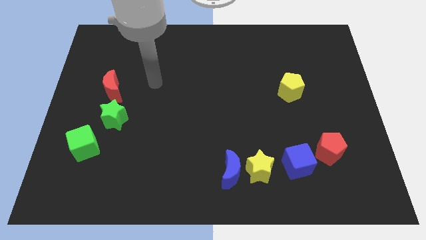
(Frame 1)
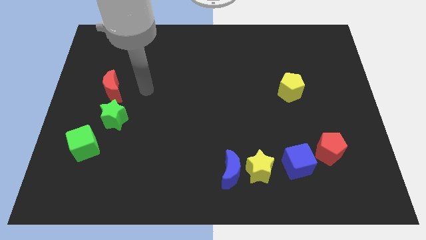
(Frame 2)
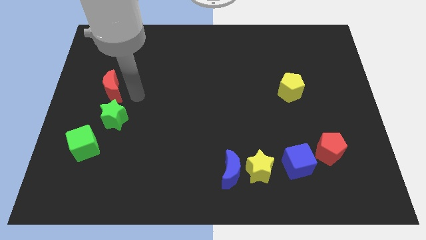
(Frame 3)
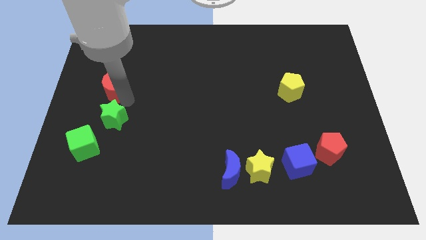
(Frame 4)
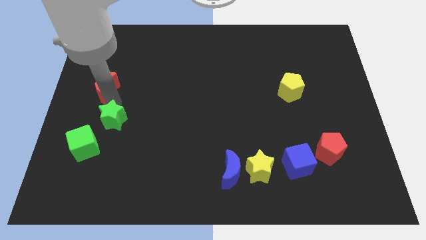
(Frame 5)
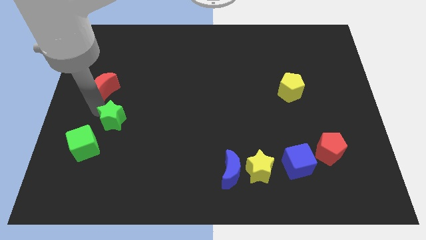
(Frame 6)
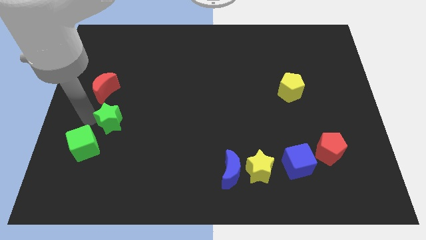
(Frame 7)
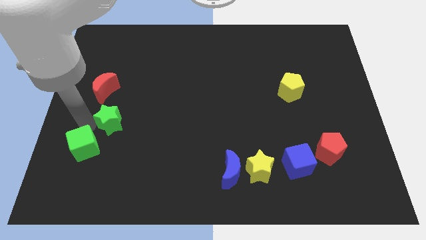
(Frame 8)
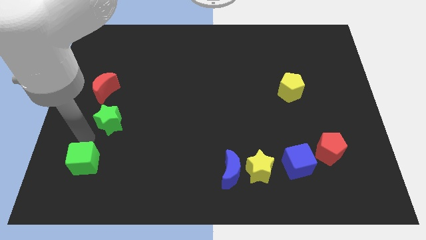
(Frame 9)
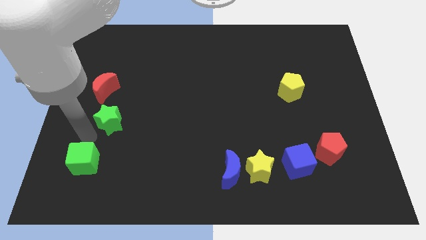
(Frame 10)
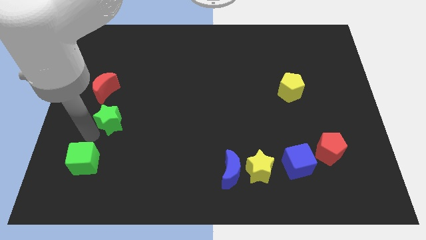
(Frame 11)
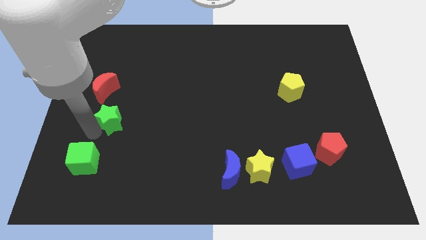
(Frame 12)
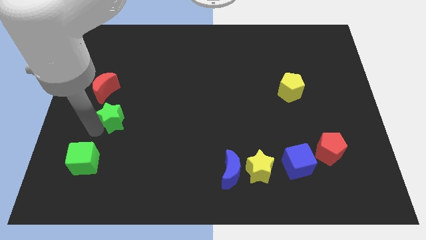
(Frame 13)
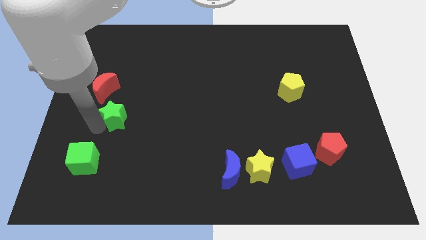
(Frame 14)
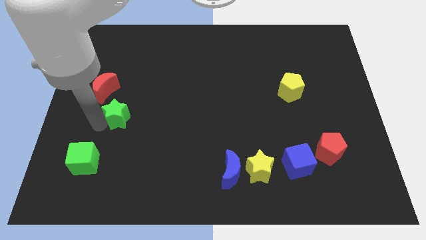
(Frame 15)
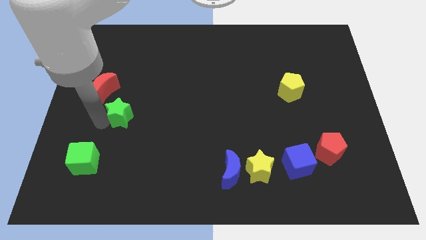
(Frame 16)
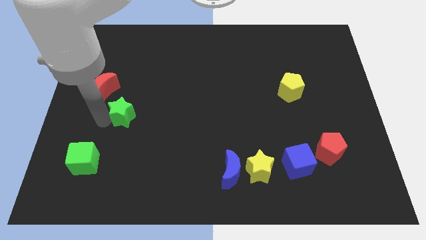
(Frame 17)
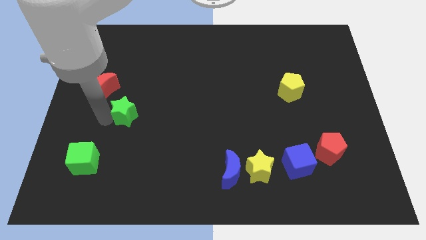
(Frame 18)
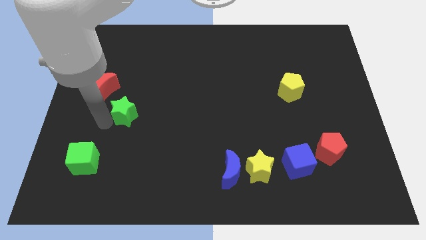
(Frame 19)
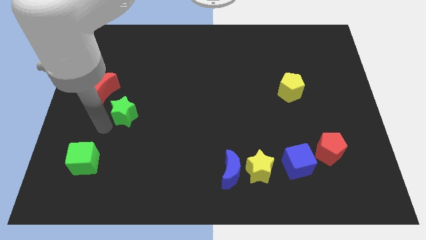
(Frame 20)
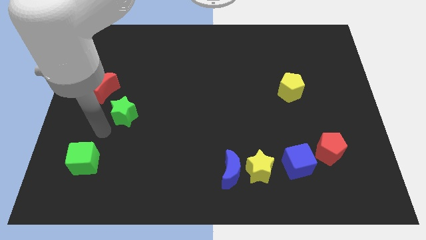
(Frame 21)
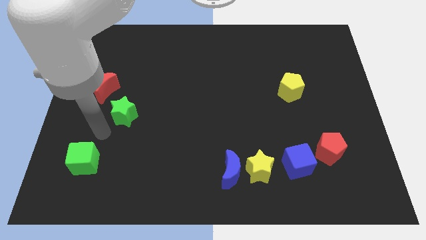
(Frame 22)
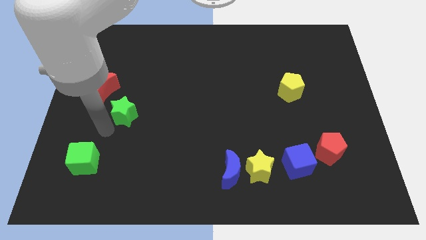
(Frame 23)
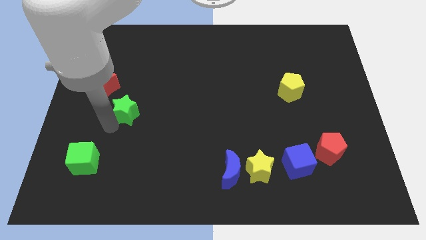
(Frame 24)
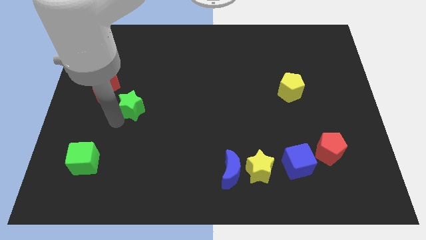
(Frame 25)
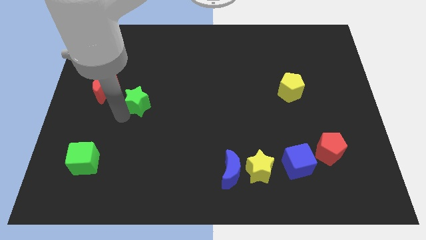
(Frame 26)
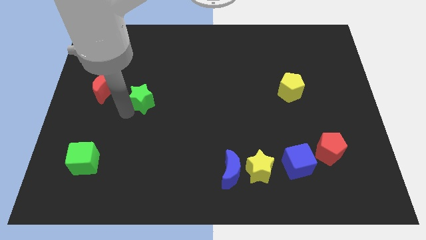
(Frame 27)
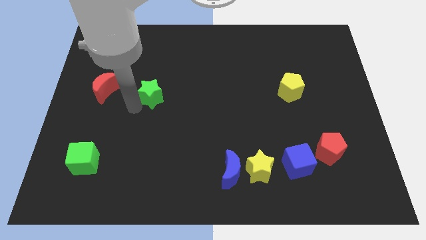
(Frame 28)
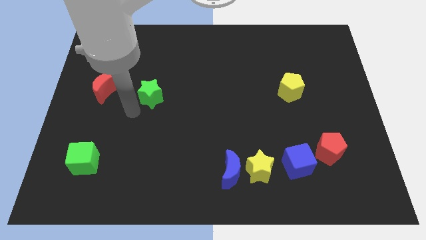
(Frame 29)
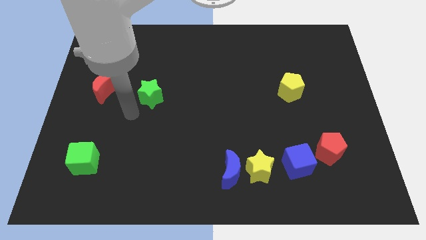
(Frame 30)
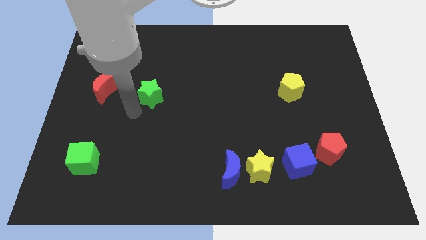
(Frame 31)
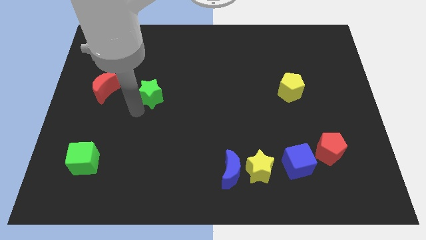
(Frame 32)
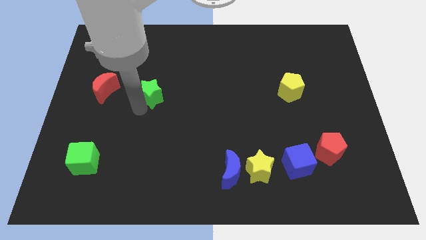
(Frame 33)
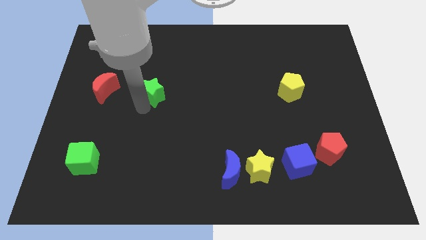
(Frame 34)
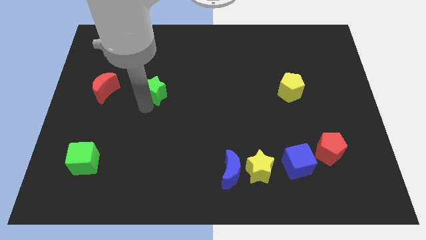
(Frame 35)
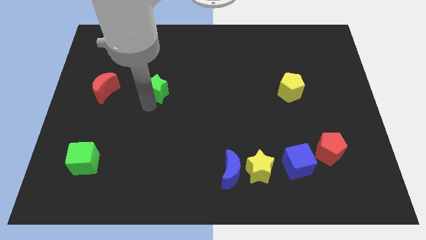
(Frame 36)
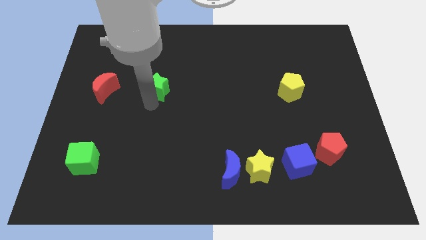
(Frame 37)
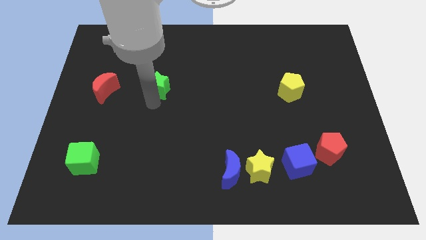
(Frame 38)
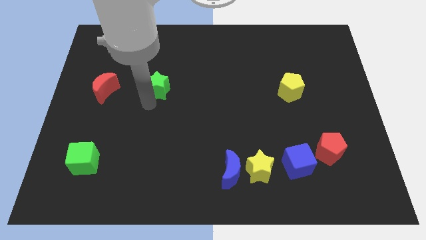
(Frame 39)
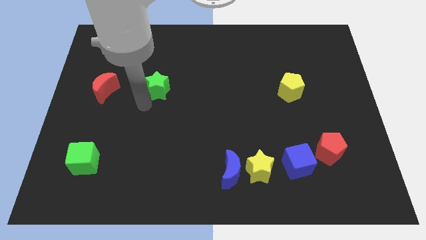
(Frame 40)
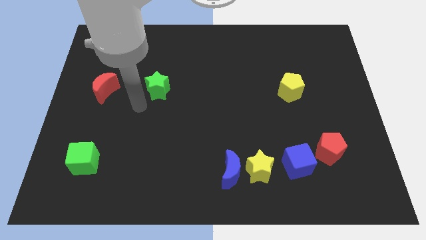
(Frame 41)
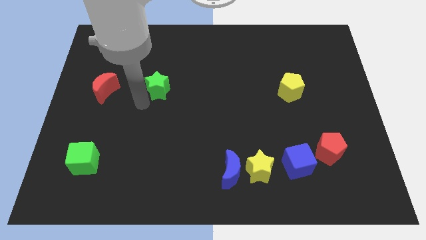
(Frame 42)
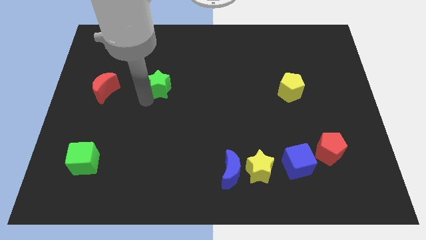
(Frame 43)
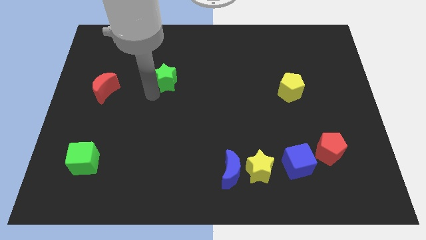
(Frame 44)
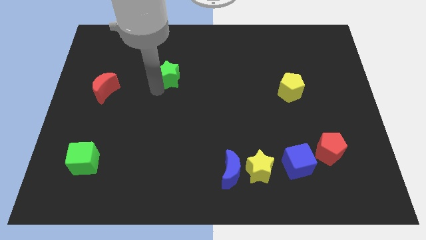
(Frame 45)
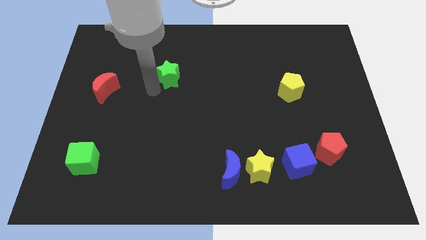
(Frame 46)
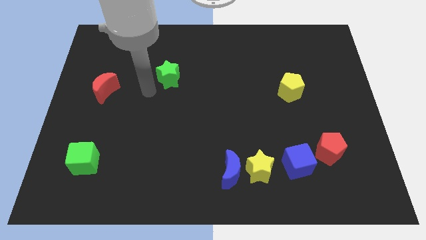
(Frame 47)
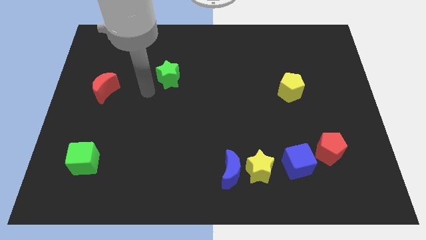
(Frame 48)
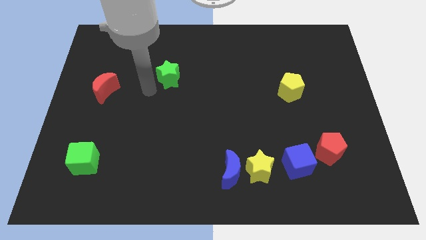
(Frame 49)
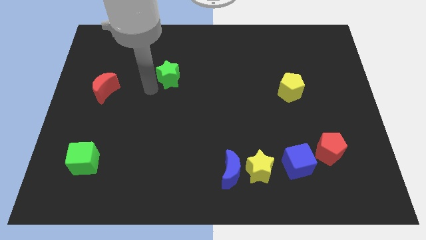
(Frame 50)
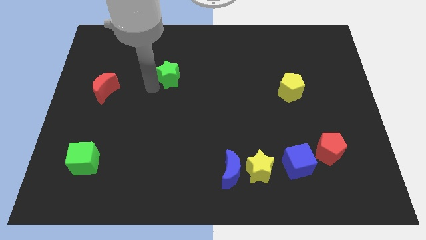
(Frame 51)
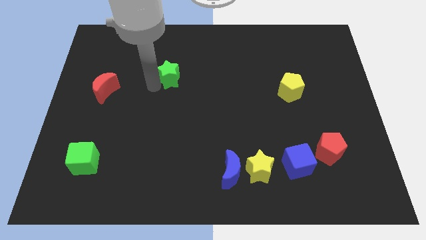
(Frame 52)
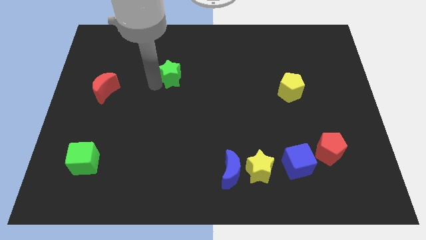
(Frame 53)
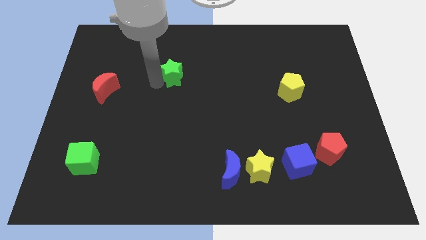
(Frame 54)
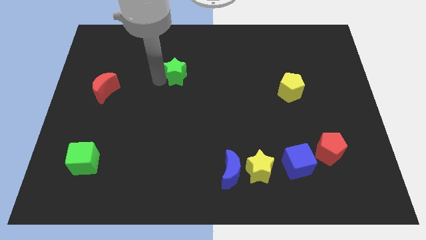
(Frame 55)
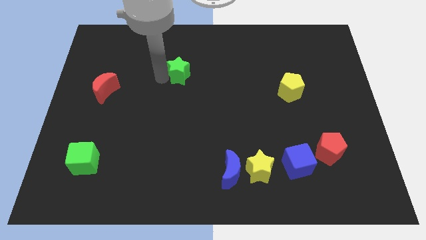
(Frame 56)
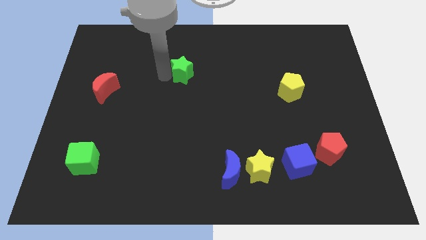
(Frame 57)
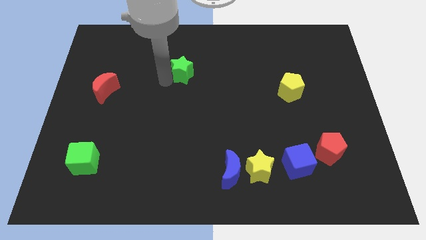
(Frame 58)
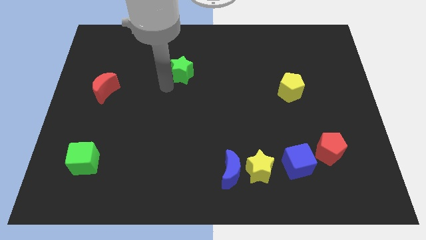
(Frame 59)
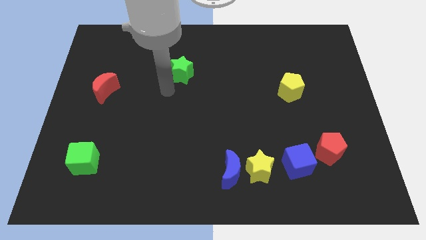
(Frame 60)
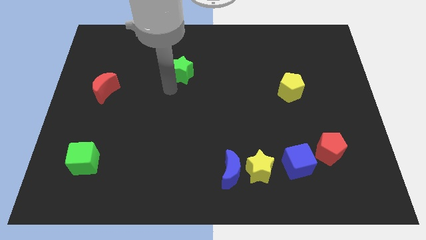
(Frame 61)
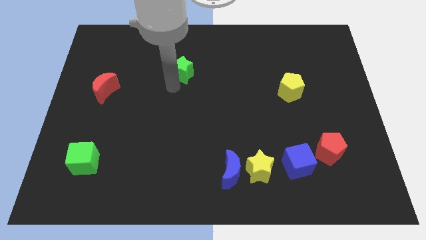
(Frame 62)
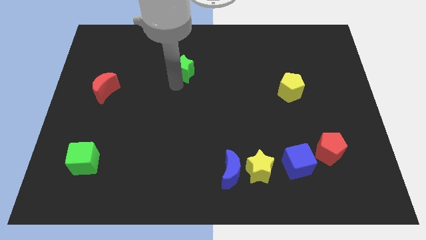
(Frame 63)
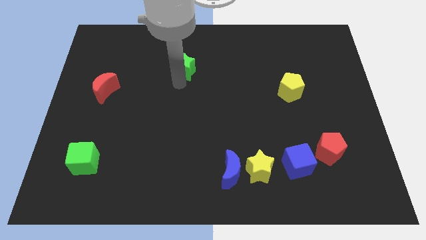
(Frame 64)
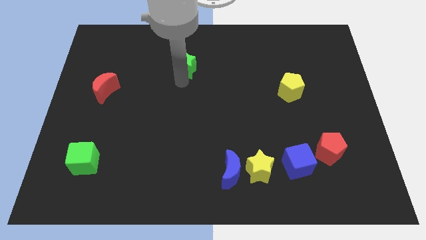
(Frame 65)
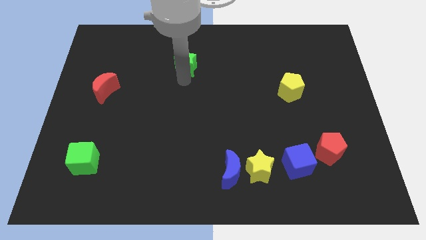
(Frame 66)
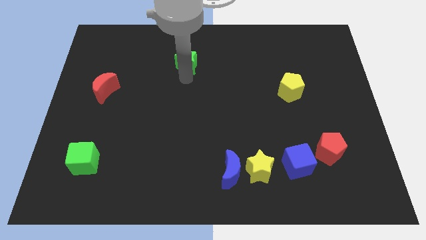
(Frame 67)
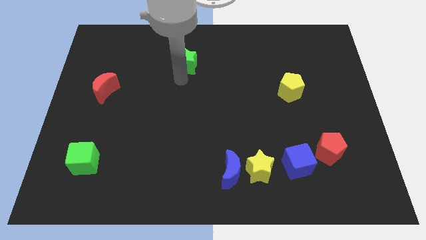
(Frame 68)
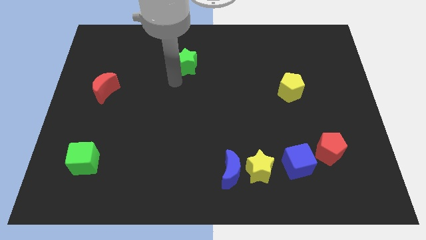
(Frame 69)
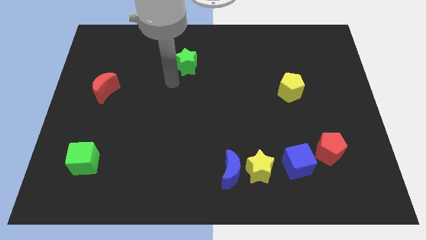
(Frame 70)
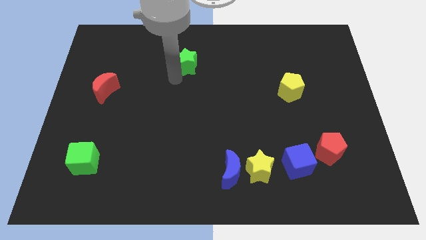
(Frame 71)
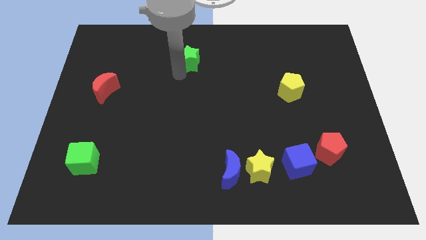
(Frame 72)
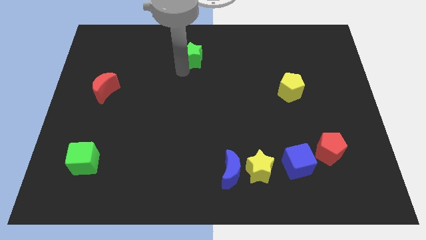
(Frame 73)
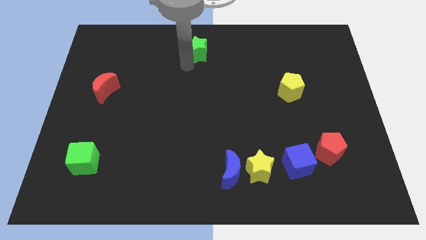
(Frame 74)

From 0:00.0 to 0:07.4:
slide the green star to the top
